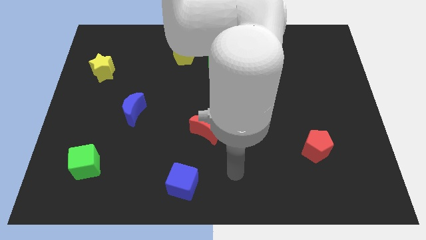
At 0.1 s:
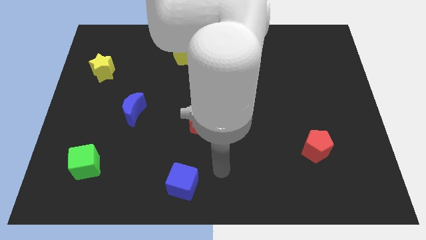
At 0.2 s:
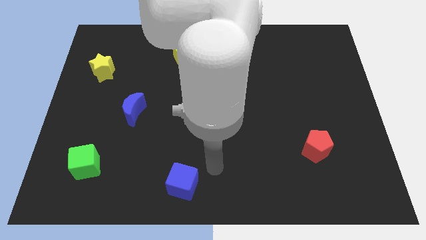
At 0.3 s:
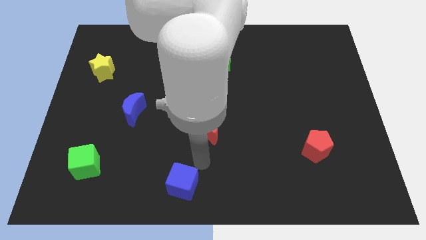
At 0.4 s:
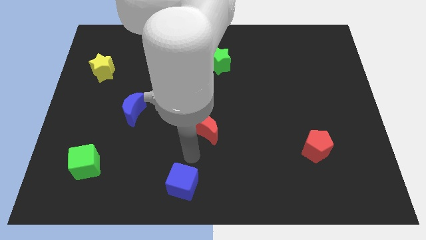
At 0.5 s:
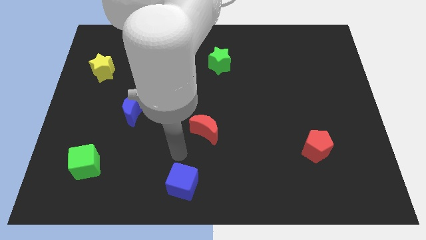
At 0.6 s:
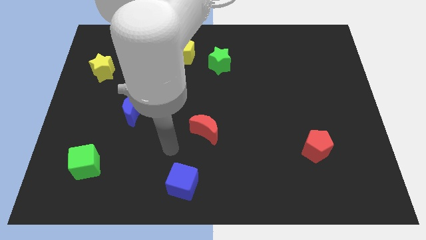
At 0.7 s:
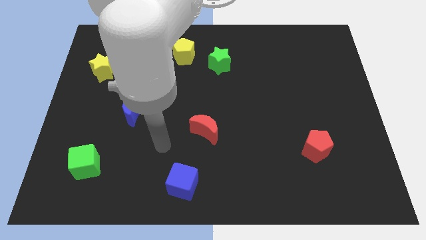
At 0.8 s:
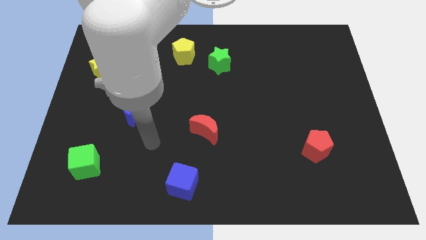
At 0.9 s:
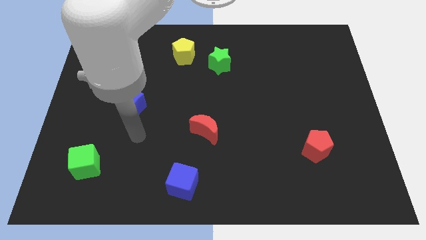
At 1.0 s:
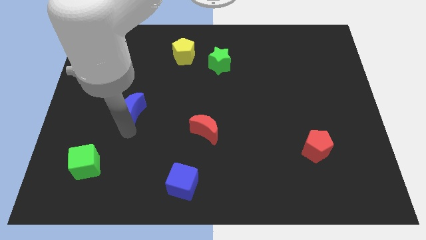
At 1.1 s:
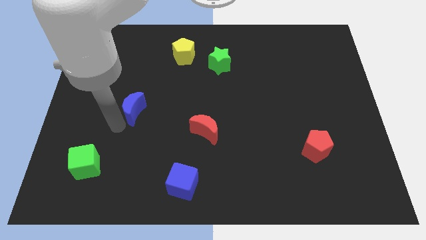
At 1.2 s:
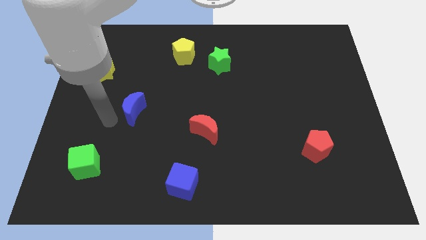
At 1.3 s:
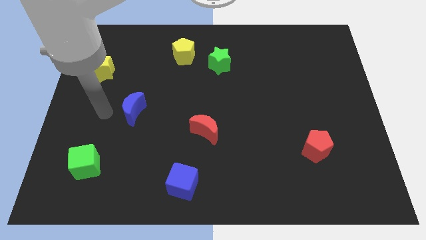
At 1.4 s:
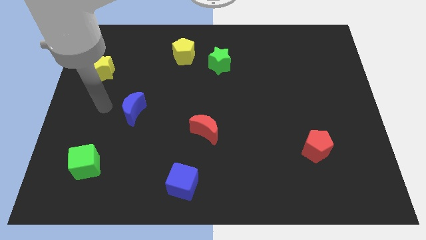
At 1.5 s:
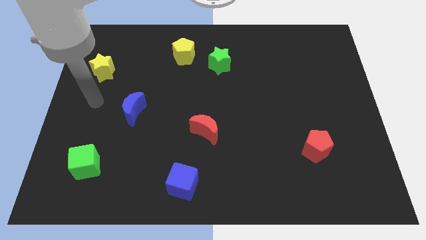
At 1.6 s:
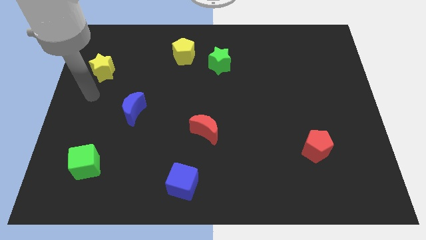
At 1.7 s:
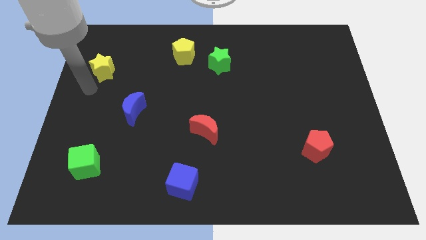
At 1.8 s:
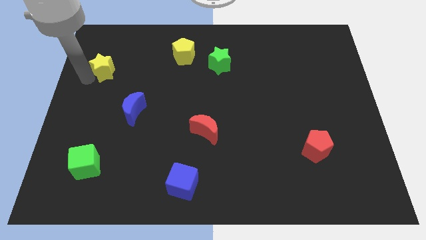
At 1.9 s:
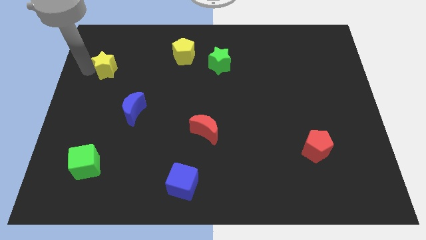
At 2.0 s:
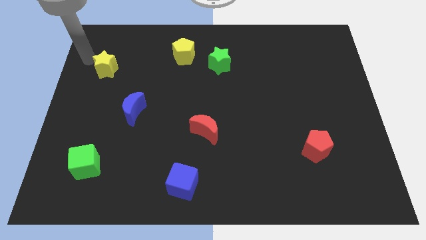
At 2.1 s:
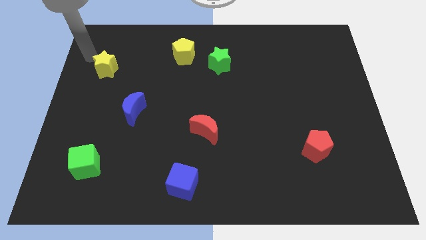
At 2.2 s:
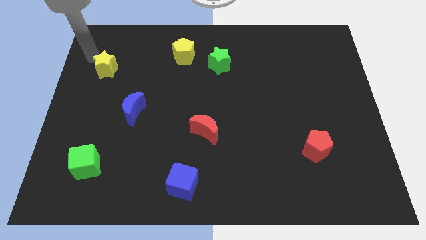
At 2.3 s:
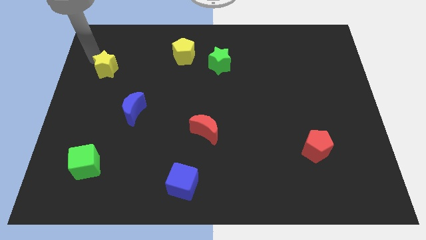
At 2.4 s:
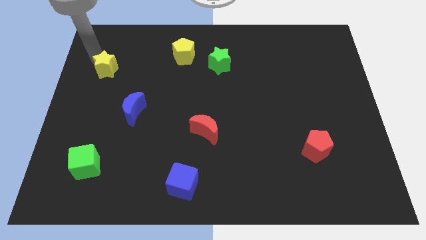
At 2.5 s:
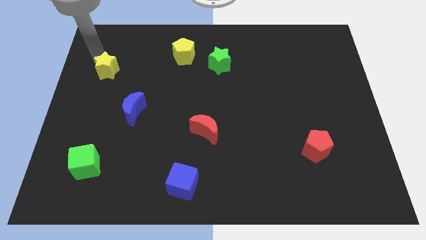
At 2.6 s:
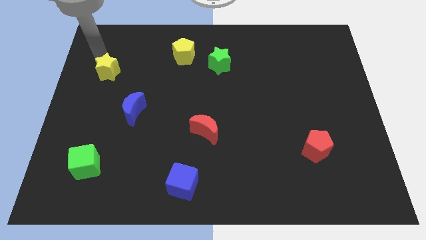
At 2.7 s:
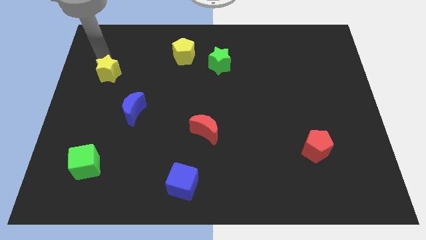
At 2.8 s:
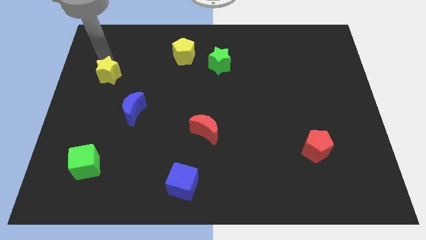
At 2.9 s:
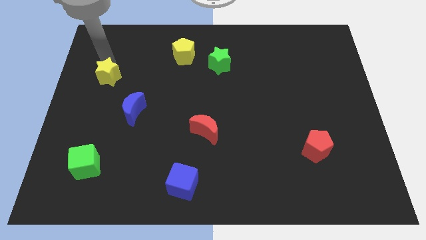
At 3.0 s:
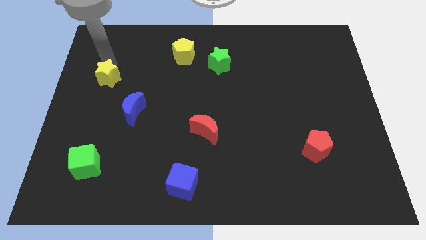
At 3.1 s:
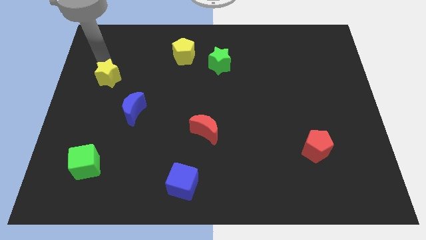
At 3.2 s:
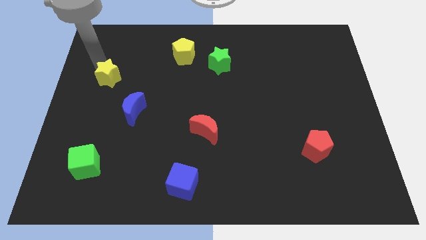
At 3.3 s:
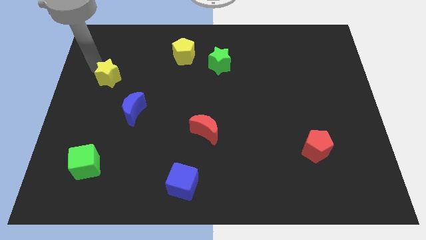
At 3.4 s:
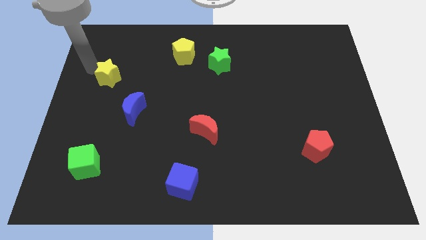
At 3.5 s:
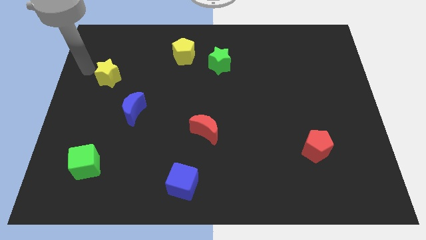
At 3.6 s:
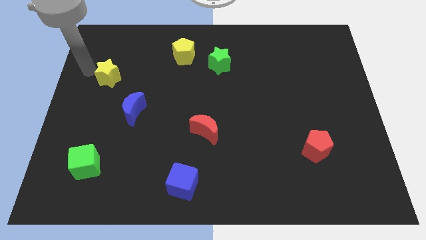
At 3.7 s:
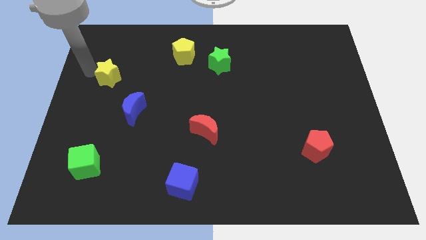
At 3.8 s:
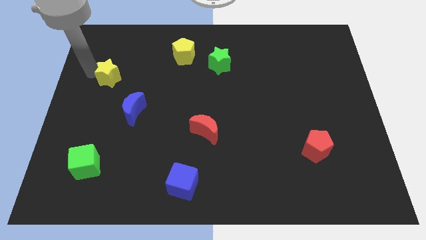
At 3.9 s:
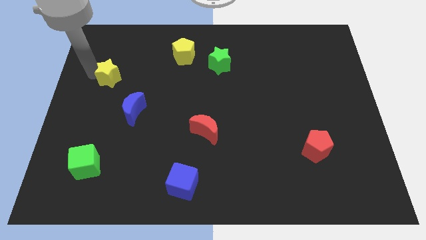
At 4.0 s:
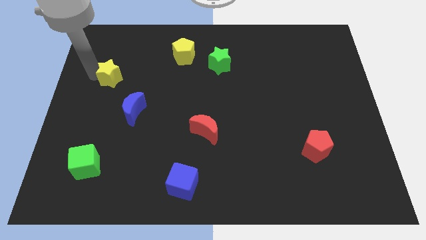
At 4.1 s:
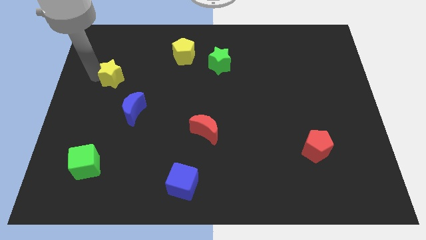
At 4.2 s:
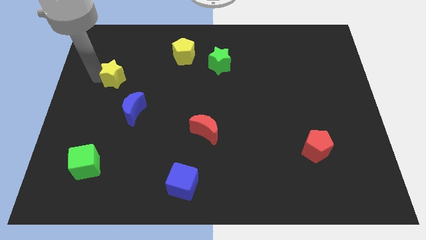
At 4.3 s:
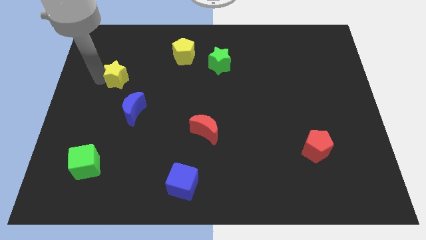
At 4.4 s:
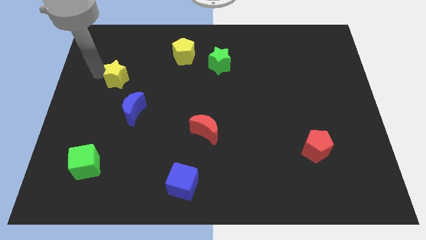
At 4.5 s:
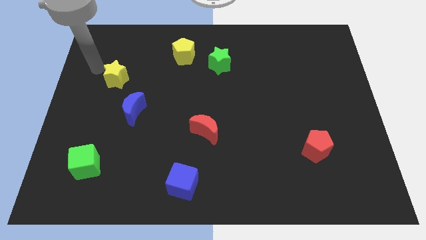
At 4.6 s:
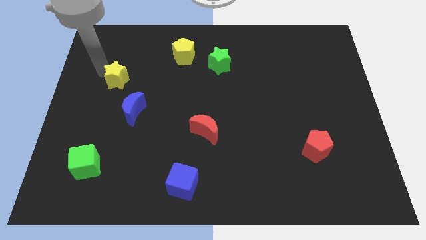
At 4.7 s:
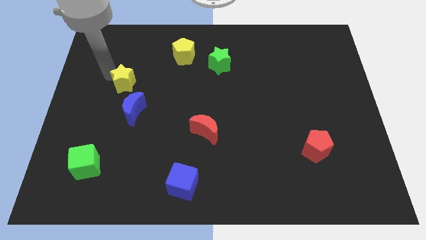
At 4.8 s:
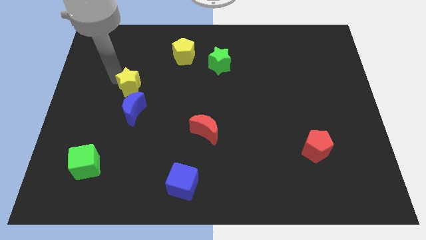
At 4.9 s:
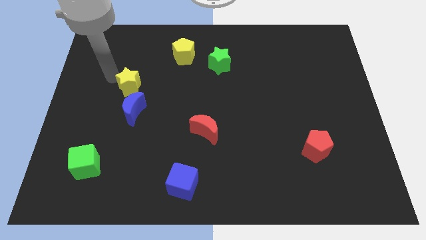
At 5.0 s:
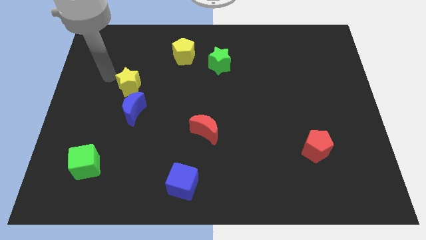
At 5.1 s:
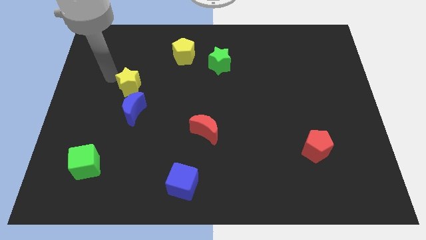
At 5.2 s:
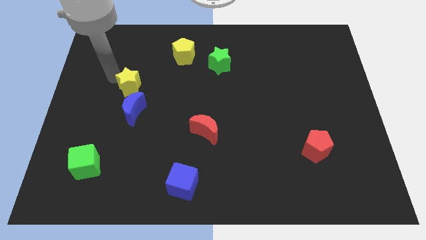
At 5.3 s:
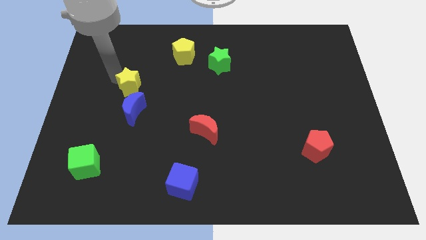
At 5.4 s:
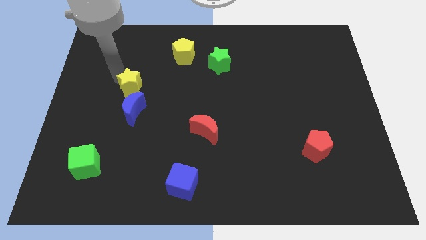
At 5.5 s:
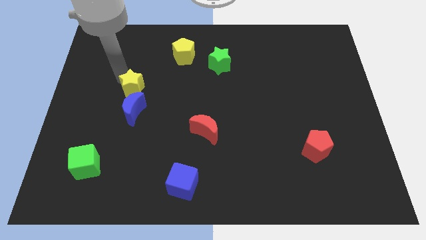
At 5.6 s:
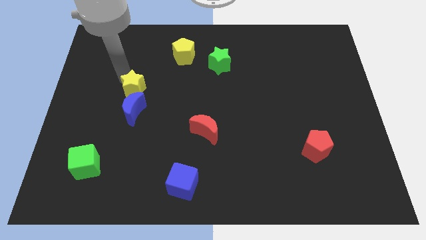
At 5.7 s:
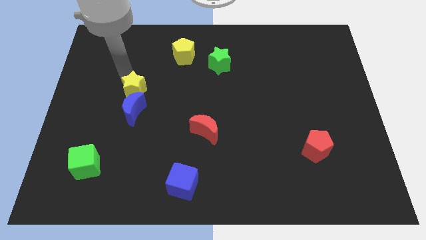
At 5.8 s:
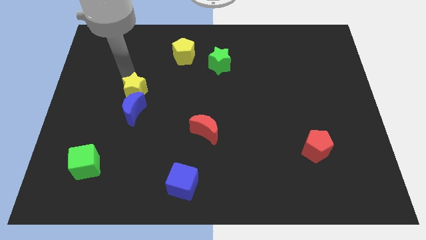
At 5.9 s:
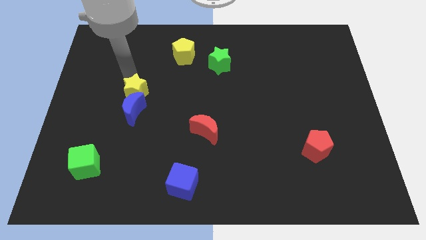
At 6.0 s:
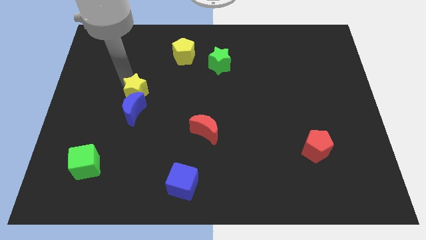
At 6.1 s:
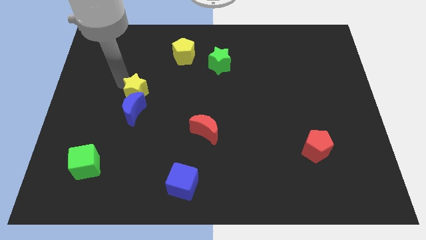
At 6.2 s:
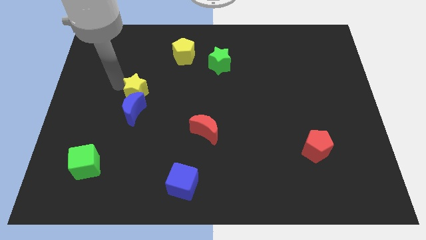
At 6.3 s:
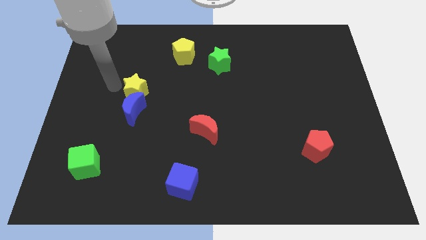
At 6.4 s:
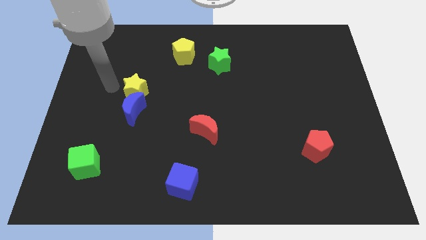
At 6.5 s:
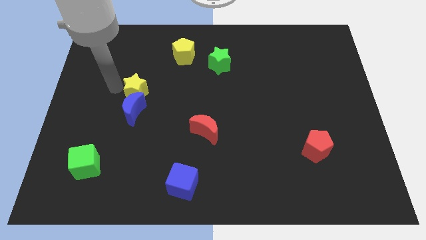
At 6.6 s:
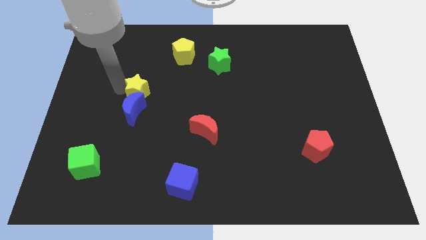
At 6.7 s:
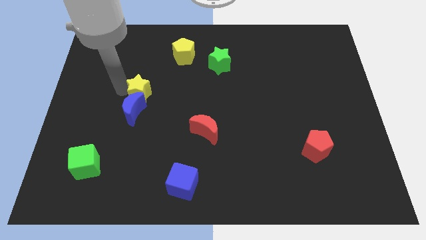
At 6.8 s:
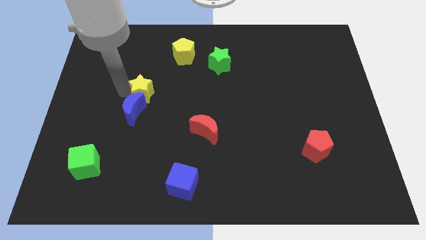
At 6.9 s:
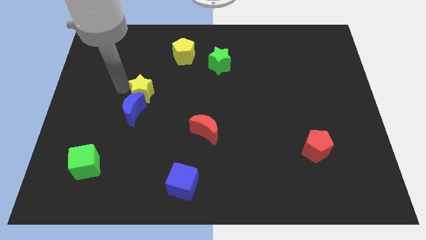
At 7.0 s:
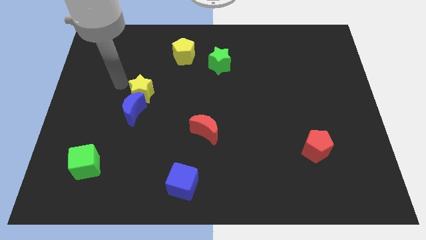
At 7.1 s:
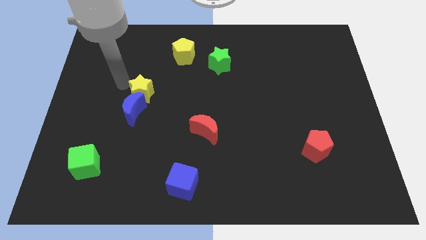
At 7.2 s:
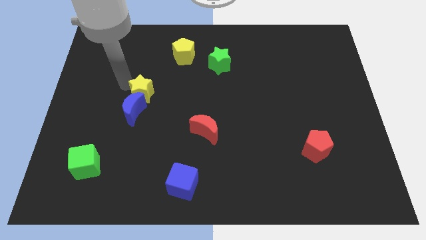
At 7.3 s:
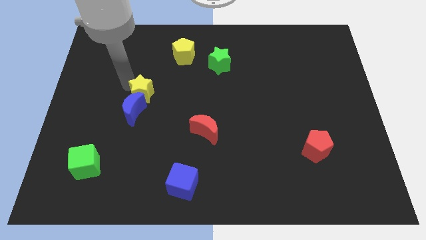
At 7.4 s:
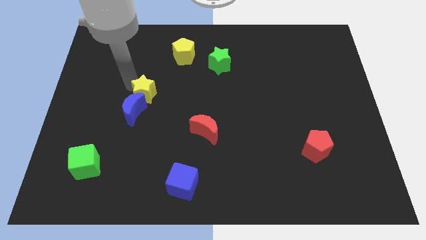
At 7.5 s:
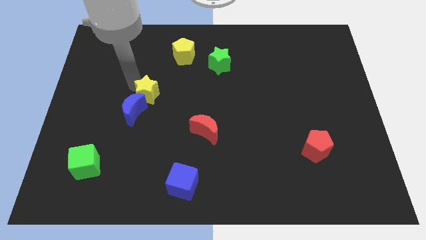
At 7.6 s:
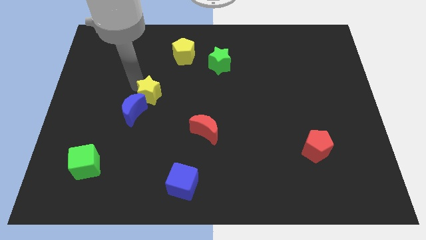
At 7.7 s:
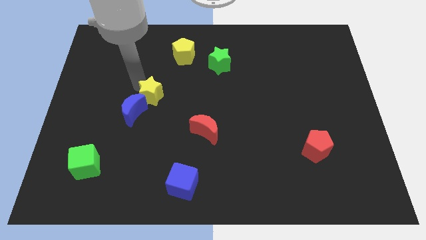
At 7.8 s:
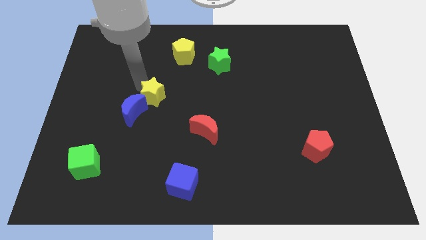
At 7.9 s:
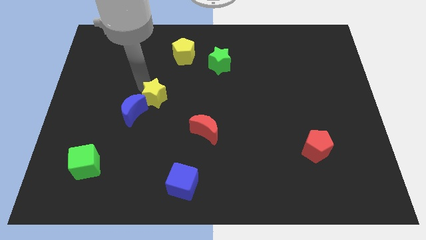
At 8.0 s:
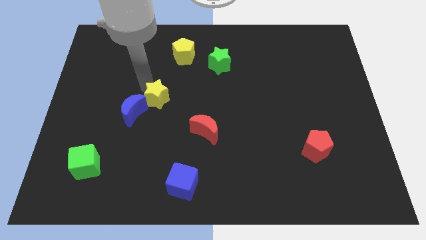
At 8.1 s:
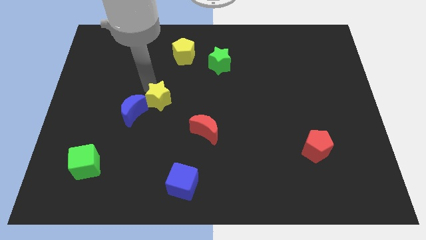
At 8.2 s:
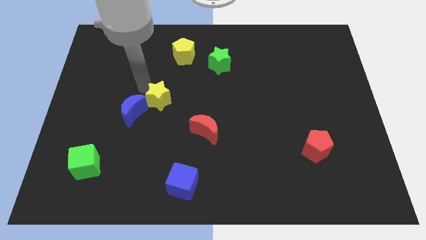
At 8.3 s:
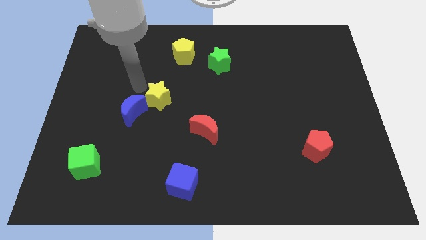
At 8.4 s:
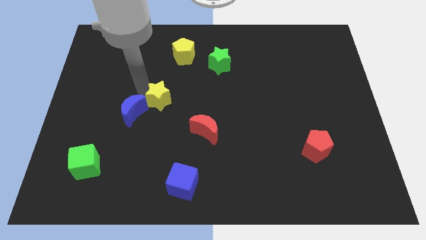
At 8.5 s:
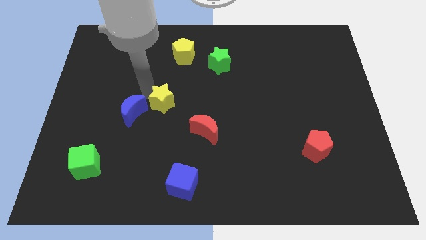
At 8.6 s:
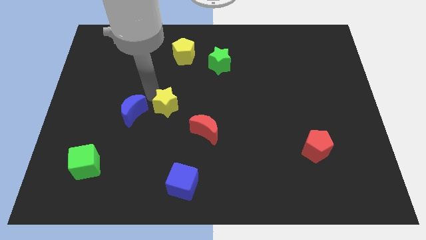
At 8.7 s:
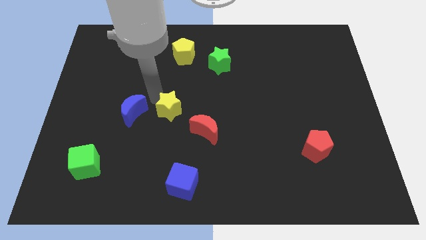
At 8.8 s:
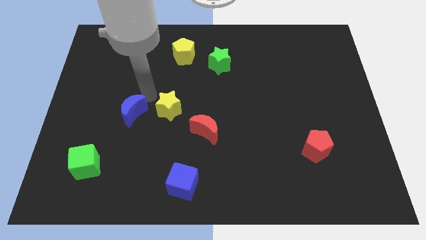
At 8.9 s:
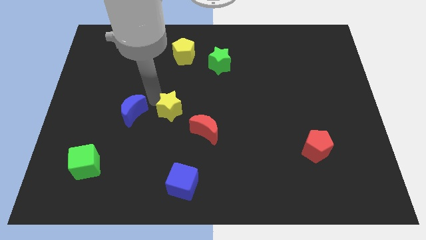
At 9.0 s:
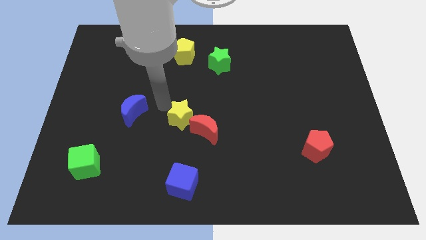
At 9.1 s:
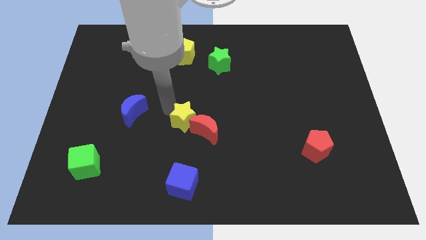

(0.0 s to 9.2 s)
slide the yellow star next to the red moon
